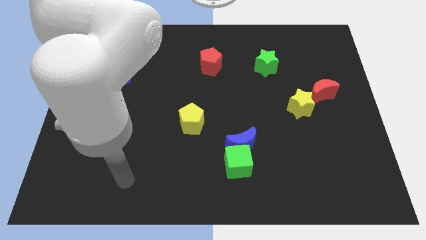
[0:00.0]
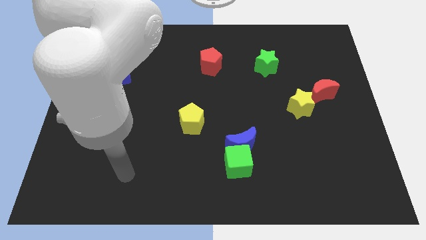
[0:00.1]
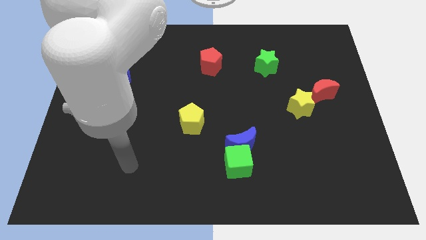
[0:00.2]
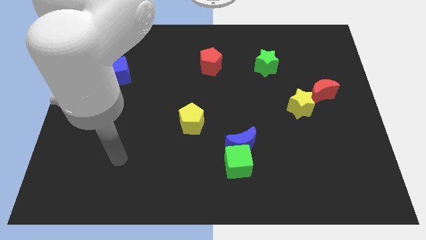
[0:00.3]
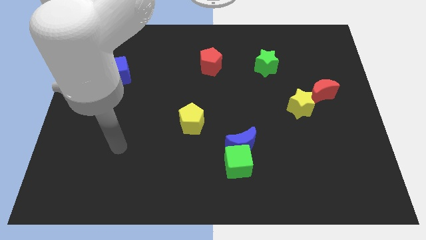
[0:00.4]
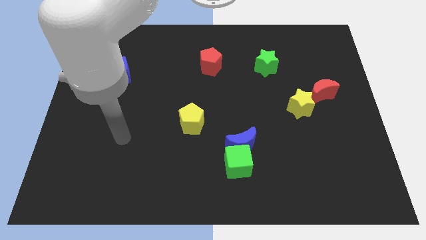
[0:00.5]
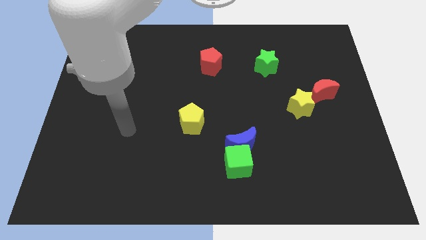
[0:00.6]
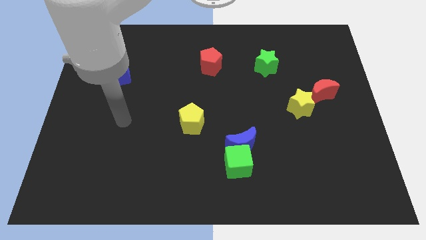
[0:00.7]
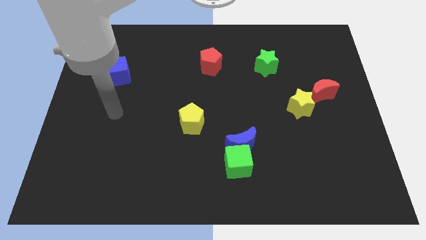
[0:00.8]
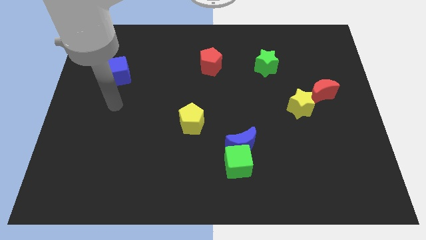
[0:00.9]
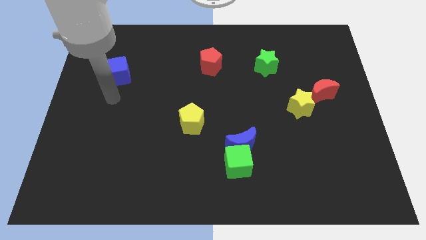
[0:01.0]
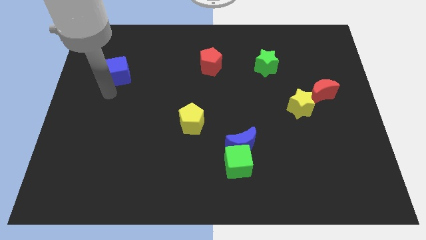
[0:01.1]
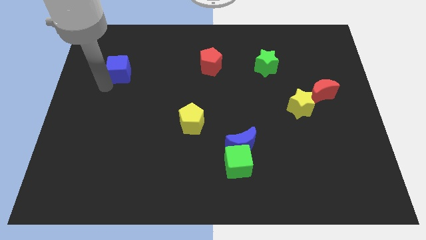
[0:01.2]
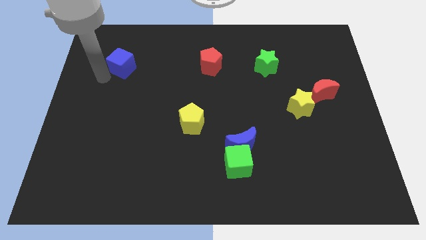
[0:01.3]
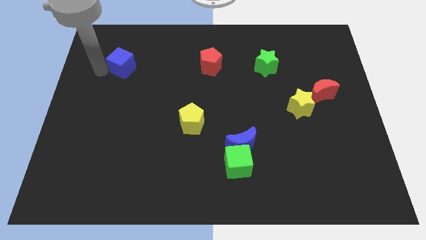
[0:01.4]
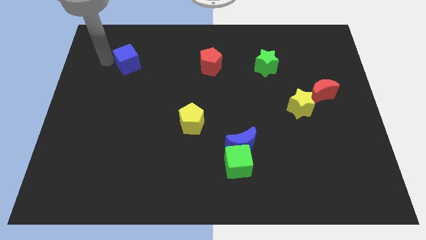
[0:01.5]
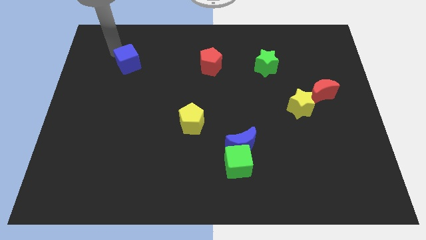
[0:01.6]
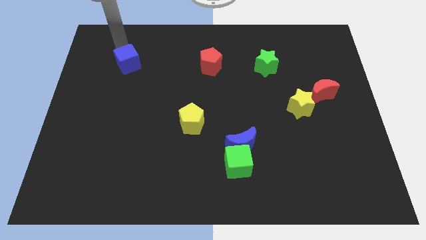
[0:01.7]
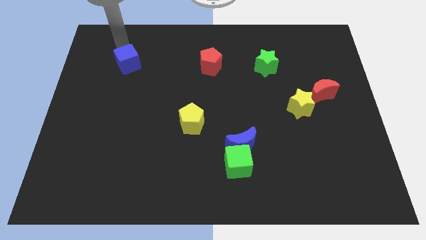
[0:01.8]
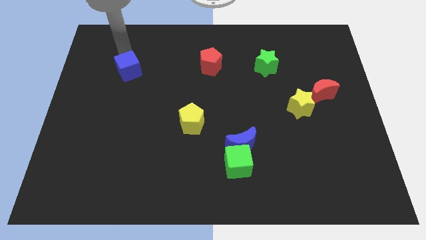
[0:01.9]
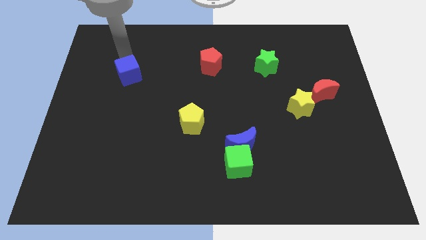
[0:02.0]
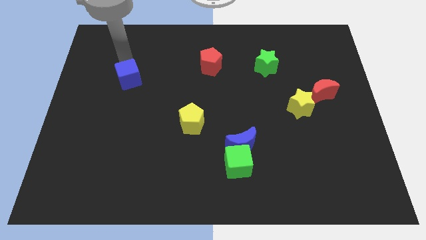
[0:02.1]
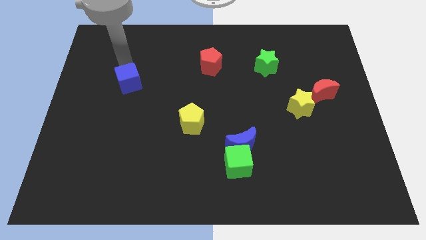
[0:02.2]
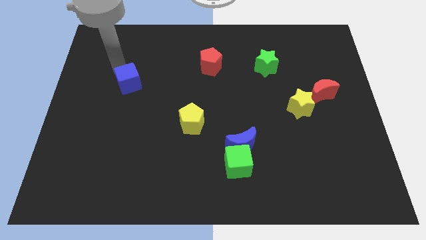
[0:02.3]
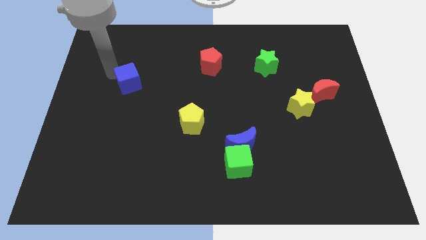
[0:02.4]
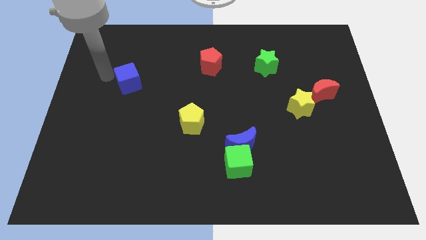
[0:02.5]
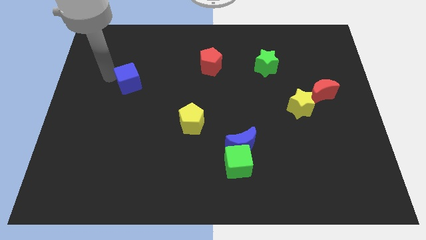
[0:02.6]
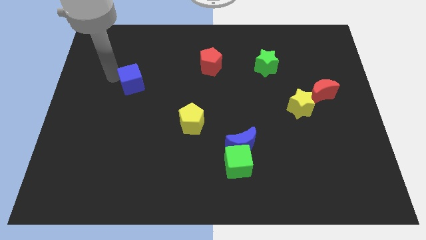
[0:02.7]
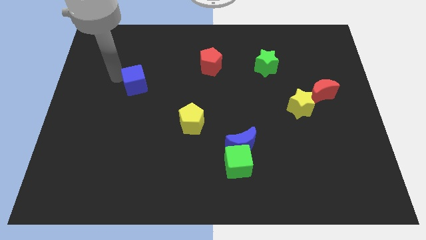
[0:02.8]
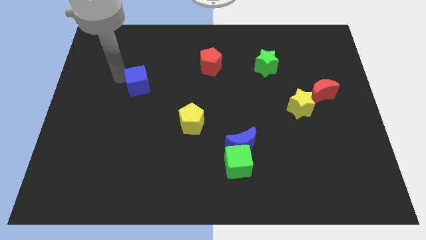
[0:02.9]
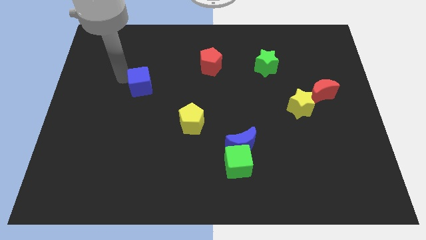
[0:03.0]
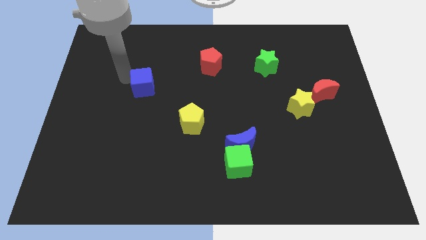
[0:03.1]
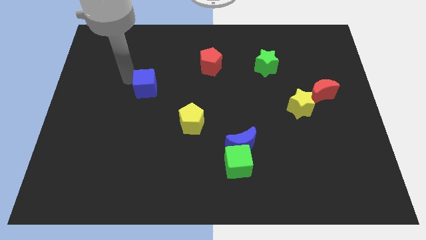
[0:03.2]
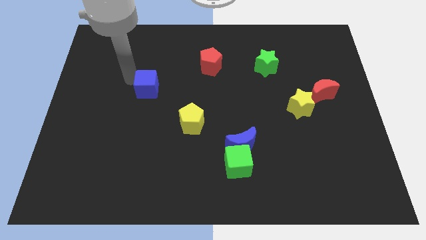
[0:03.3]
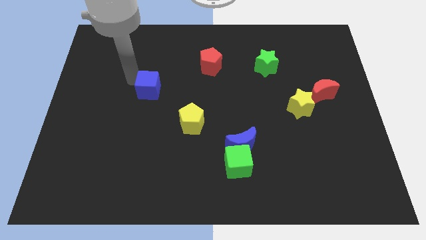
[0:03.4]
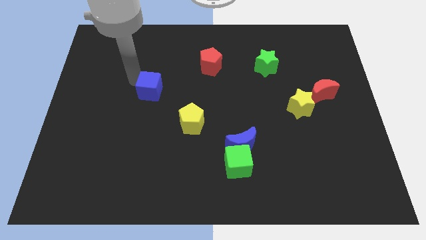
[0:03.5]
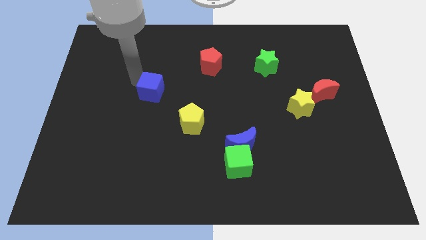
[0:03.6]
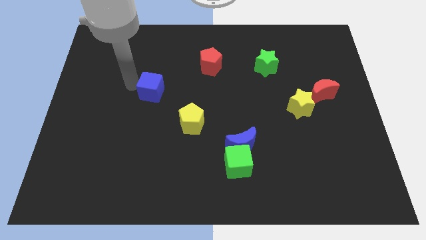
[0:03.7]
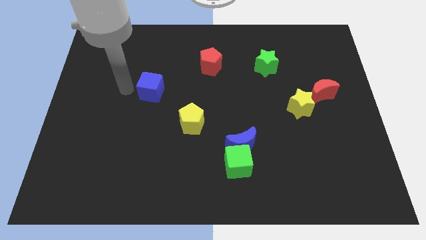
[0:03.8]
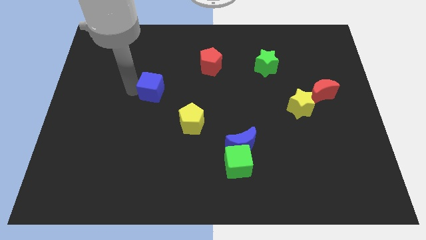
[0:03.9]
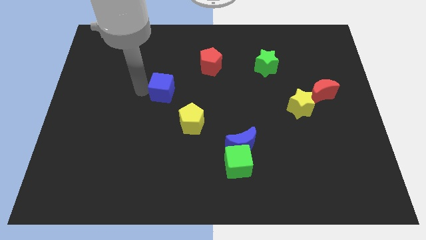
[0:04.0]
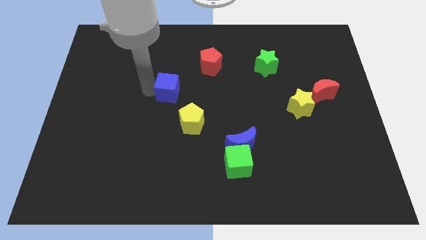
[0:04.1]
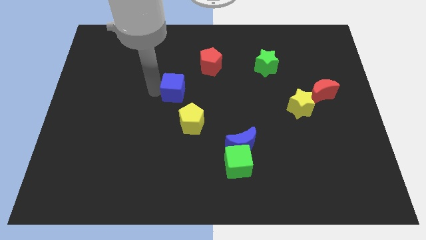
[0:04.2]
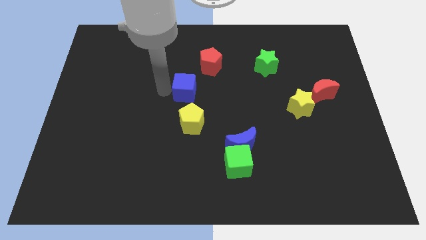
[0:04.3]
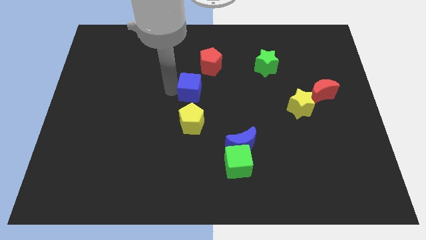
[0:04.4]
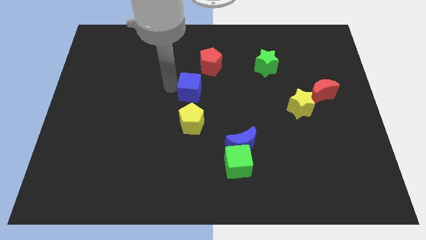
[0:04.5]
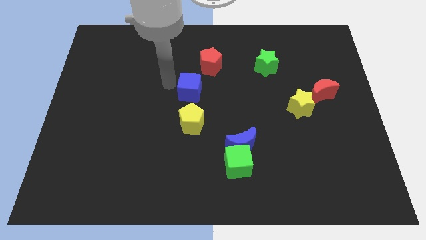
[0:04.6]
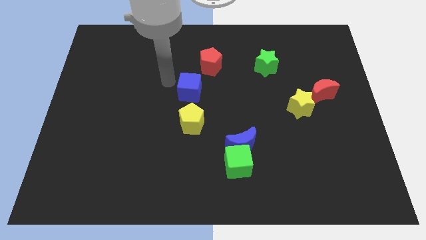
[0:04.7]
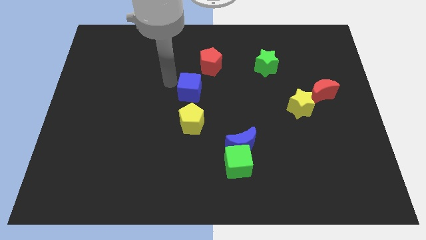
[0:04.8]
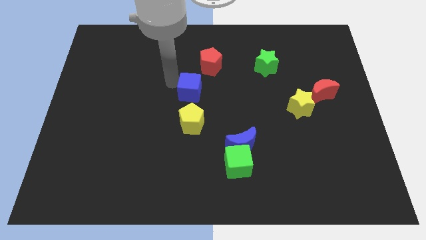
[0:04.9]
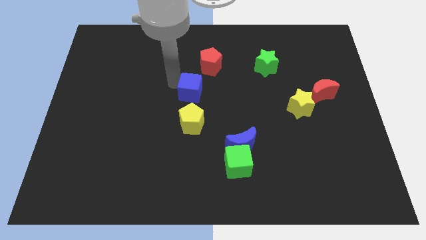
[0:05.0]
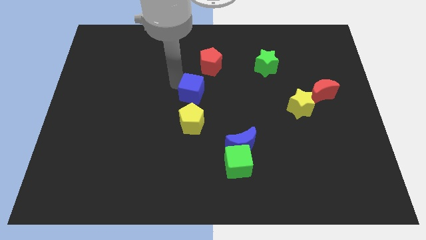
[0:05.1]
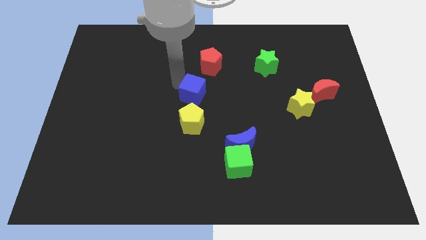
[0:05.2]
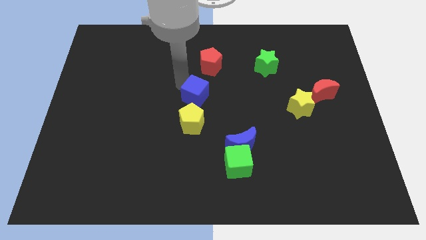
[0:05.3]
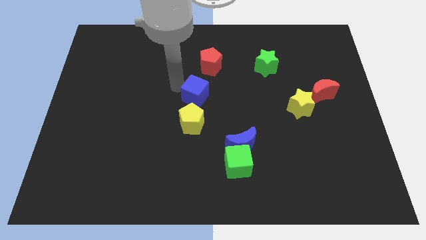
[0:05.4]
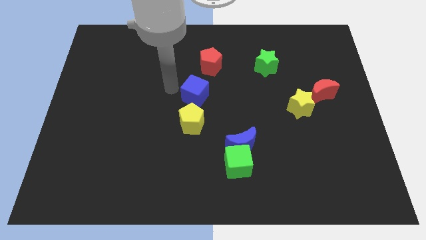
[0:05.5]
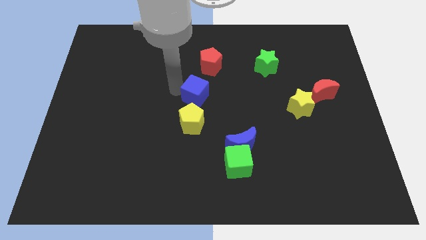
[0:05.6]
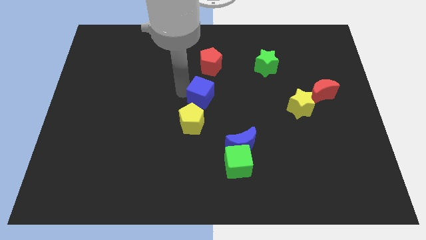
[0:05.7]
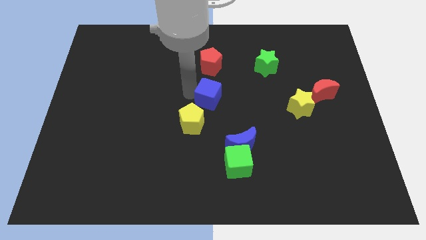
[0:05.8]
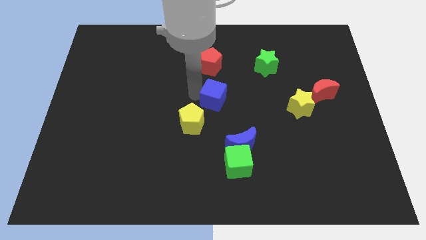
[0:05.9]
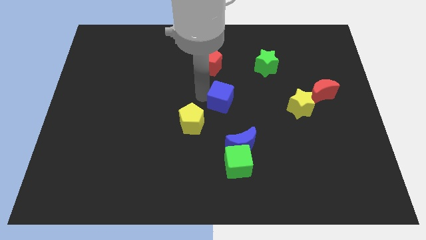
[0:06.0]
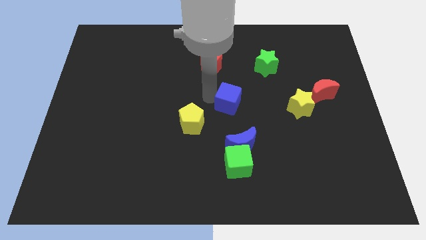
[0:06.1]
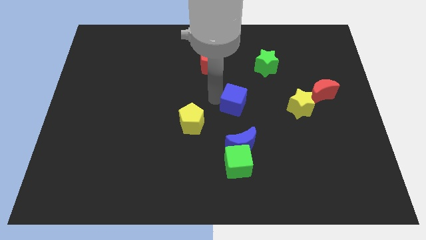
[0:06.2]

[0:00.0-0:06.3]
push the blue cube to the left of the yellow star

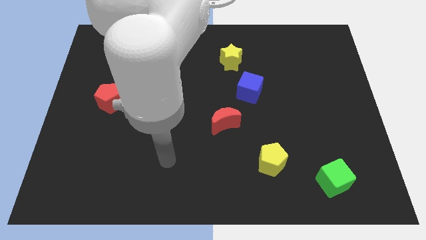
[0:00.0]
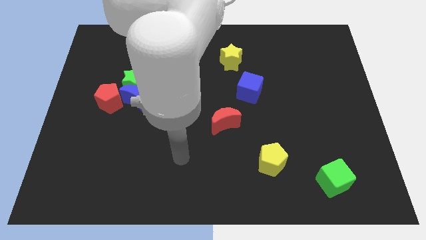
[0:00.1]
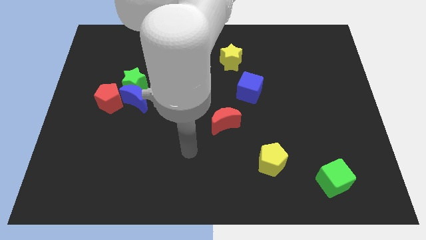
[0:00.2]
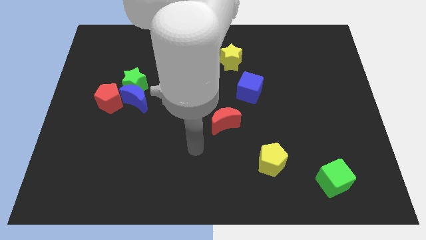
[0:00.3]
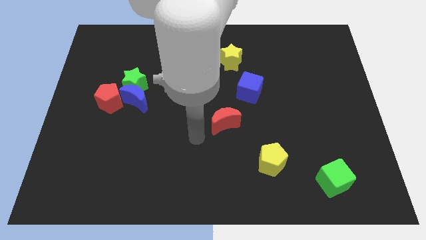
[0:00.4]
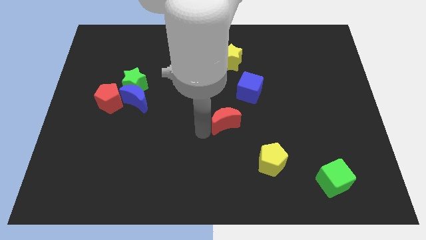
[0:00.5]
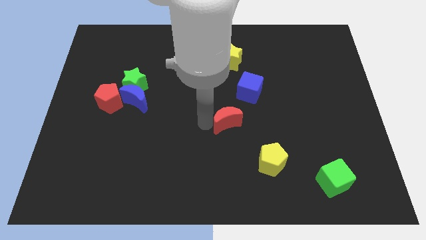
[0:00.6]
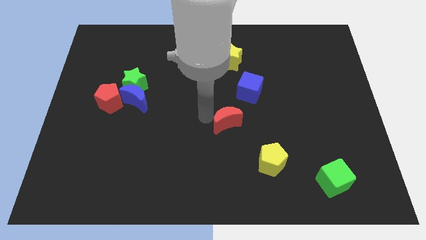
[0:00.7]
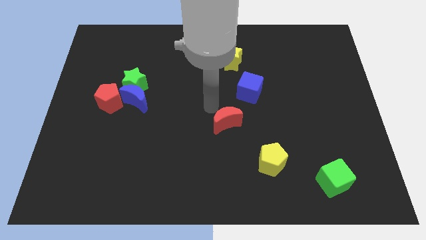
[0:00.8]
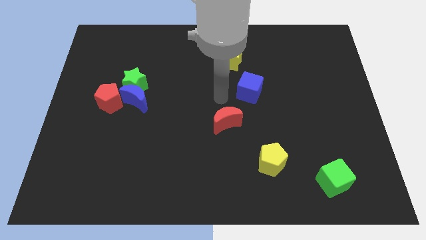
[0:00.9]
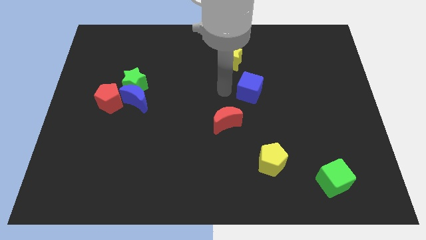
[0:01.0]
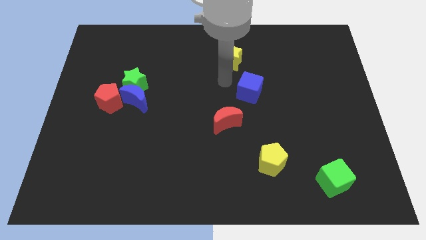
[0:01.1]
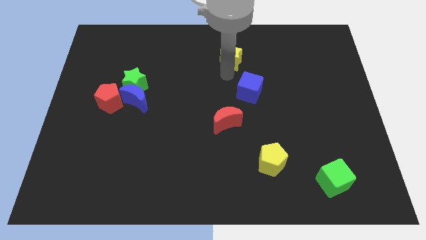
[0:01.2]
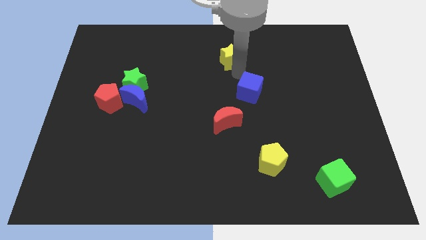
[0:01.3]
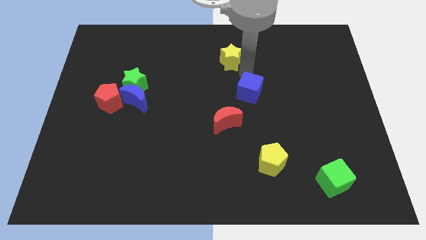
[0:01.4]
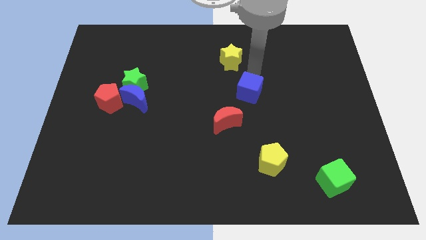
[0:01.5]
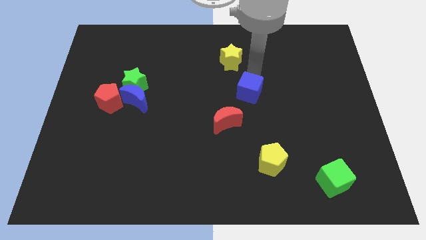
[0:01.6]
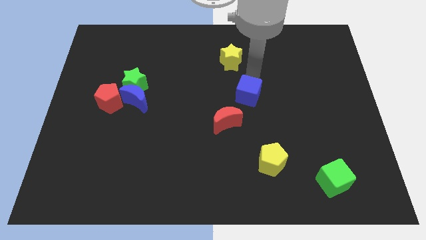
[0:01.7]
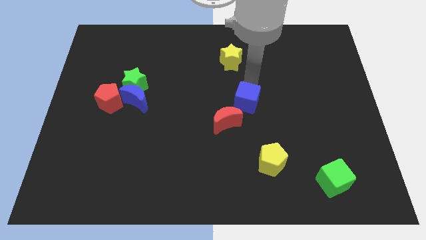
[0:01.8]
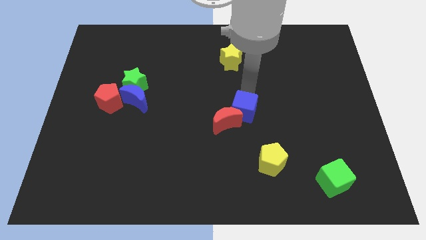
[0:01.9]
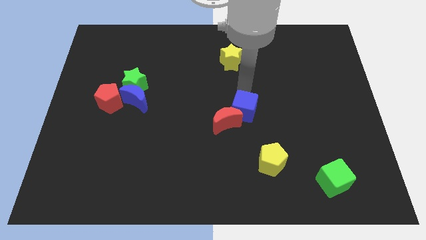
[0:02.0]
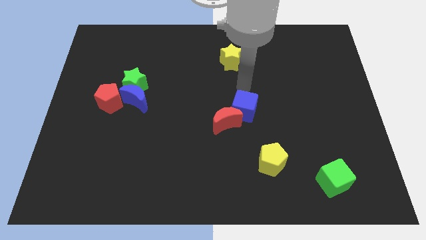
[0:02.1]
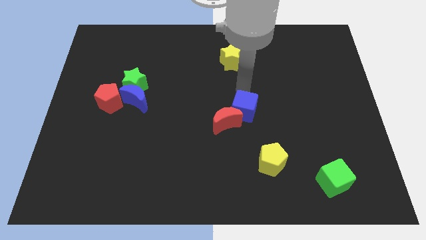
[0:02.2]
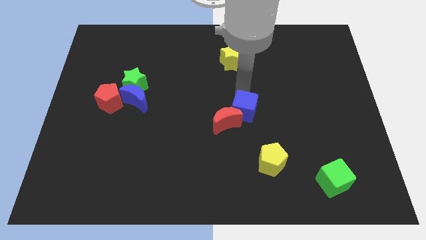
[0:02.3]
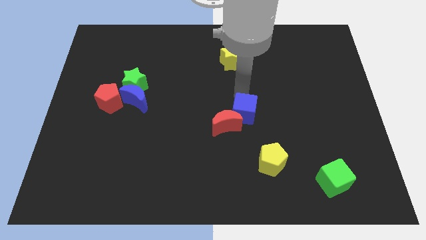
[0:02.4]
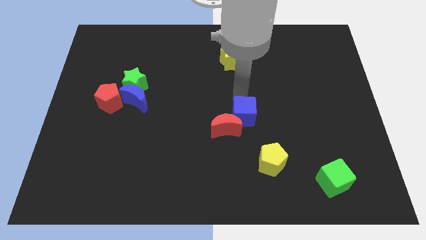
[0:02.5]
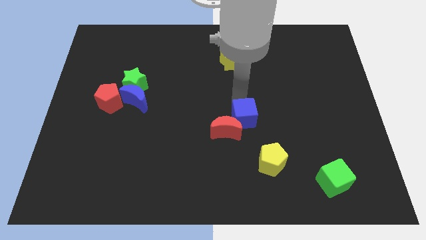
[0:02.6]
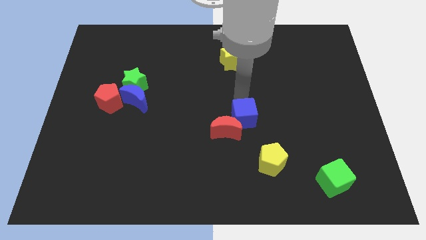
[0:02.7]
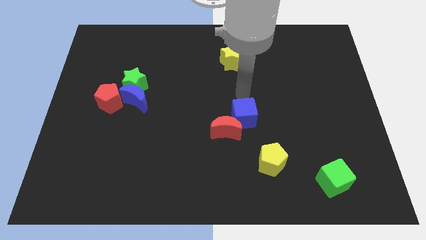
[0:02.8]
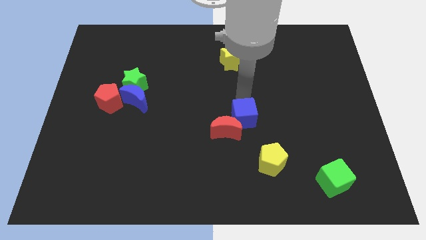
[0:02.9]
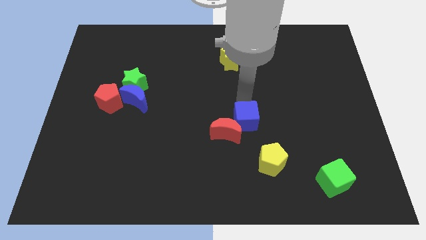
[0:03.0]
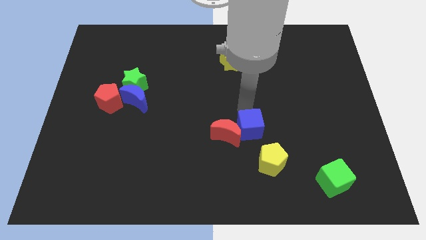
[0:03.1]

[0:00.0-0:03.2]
slide the blue cube to the top left of the yellow pentagon
